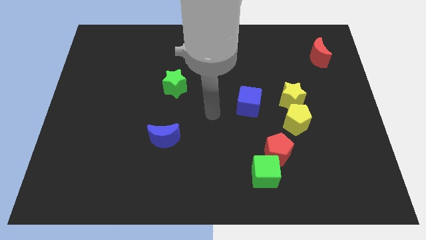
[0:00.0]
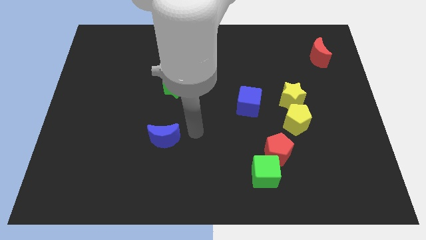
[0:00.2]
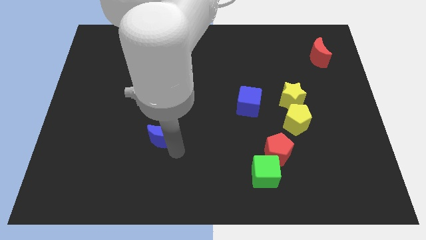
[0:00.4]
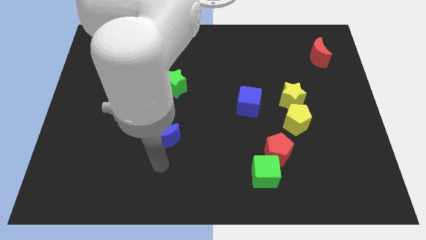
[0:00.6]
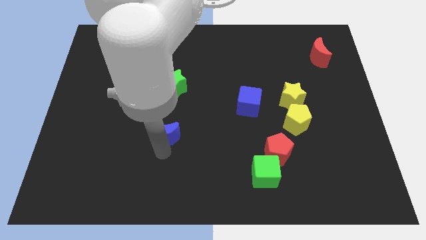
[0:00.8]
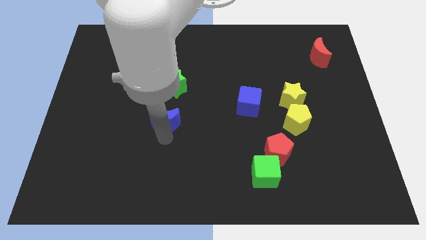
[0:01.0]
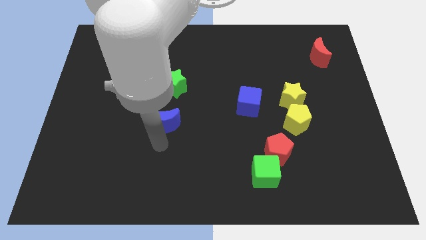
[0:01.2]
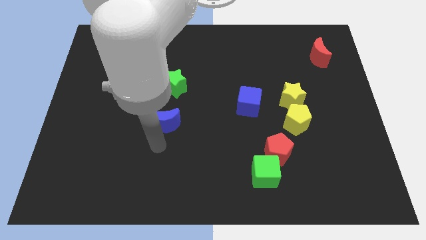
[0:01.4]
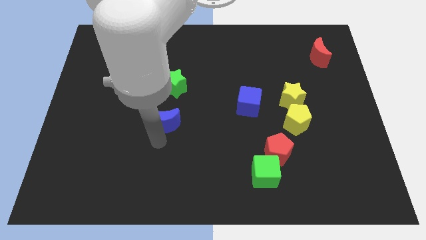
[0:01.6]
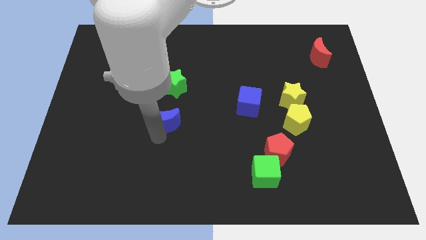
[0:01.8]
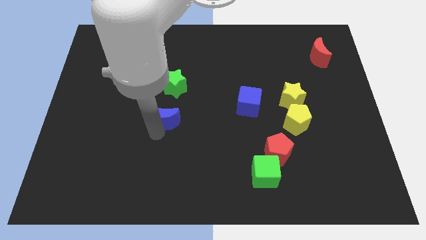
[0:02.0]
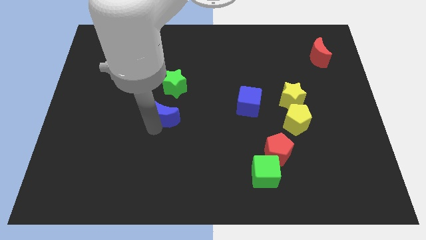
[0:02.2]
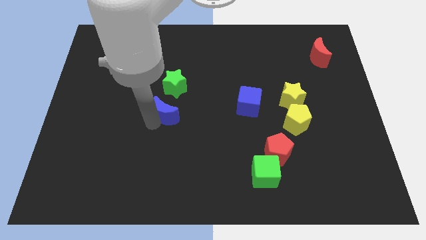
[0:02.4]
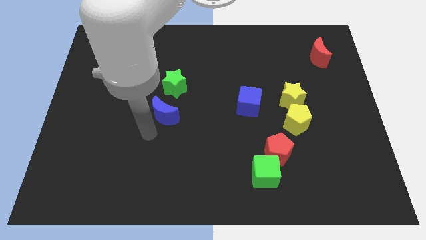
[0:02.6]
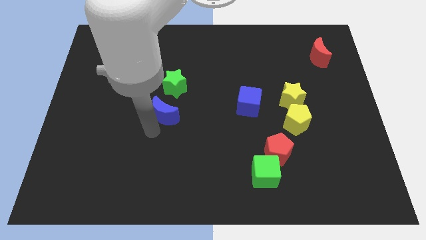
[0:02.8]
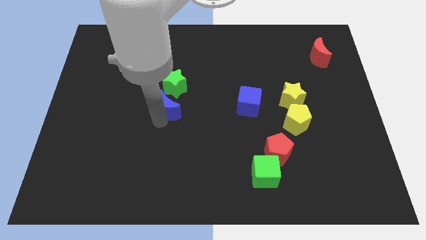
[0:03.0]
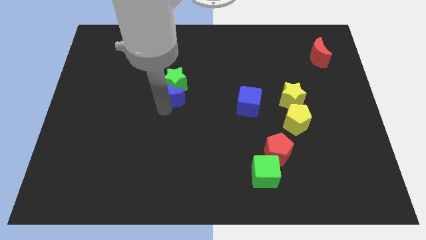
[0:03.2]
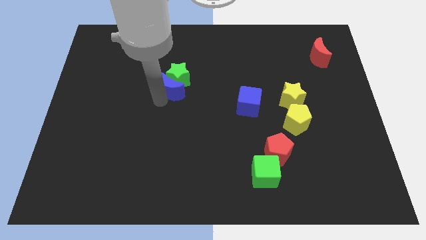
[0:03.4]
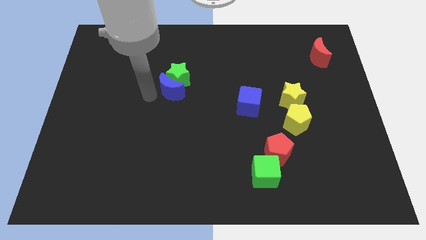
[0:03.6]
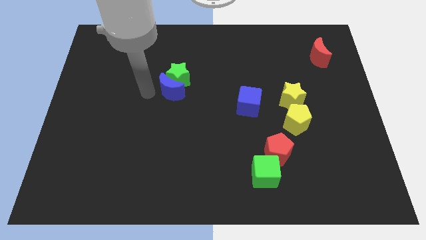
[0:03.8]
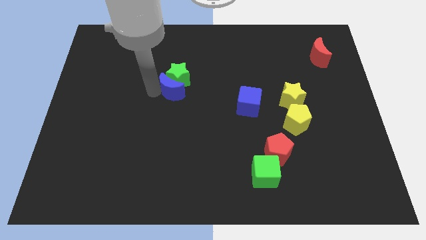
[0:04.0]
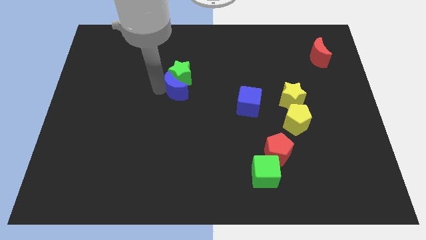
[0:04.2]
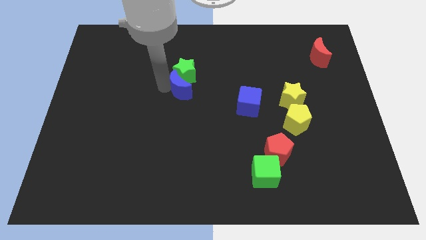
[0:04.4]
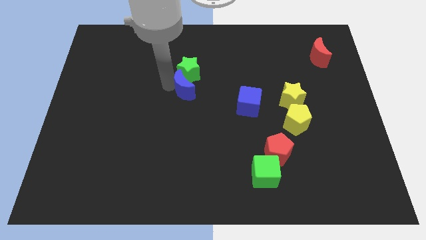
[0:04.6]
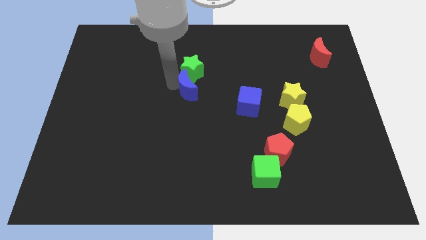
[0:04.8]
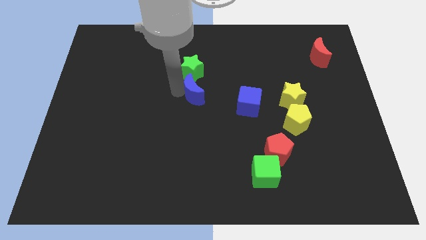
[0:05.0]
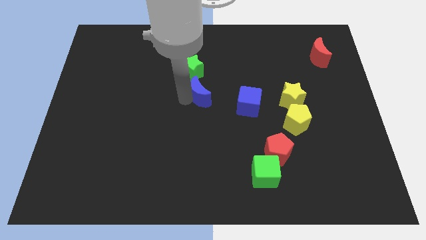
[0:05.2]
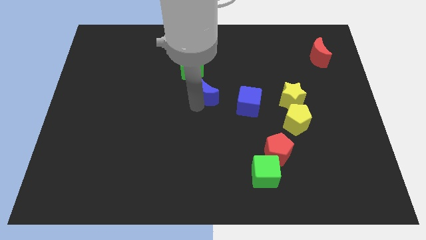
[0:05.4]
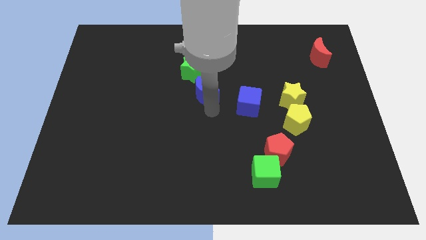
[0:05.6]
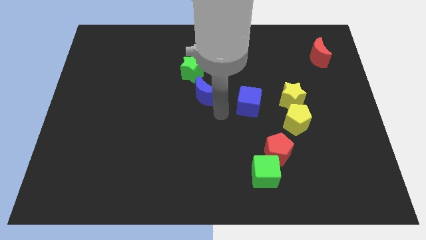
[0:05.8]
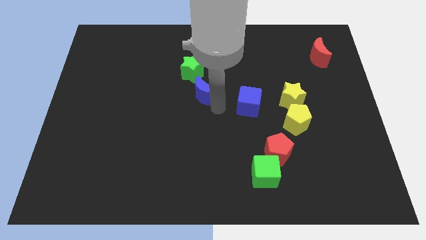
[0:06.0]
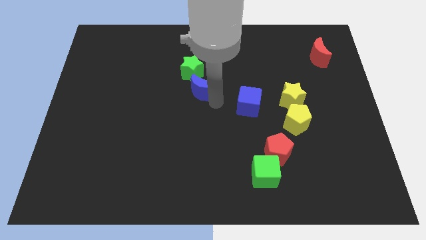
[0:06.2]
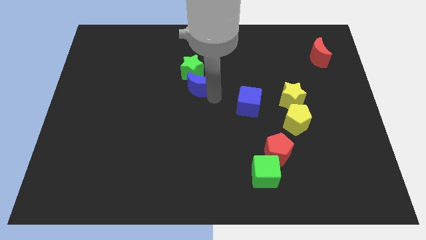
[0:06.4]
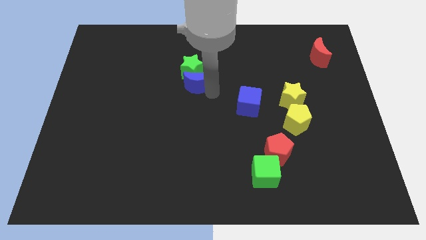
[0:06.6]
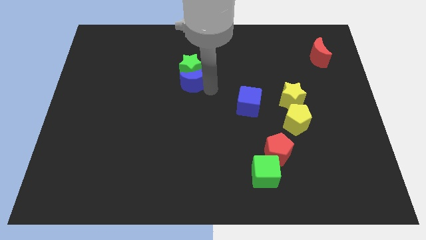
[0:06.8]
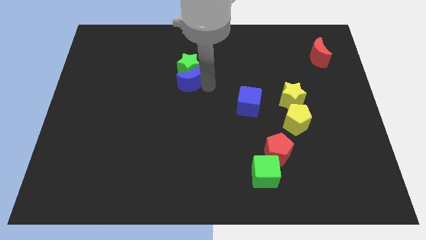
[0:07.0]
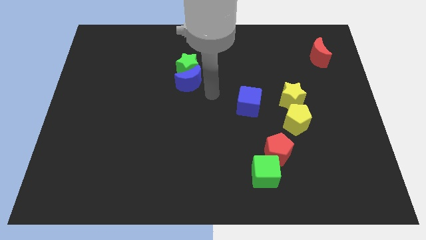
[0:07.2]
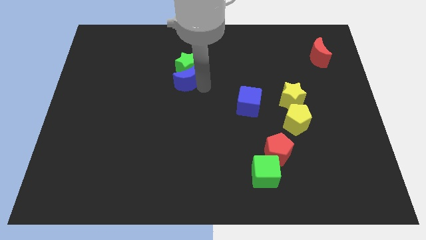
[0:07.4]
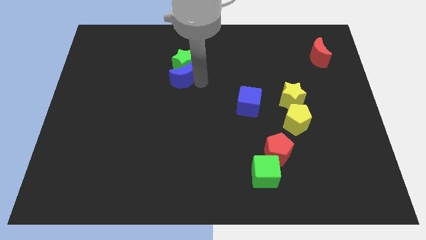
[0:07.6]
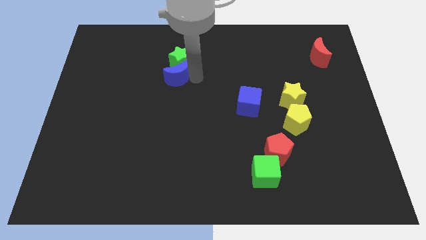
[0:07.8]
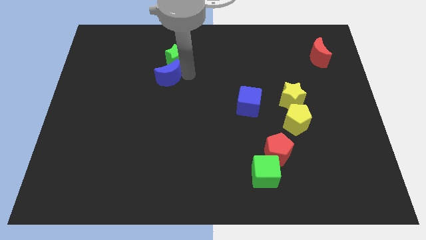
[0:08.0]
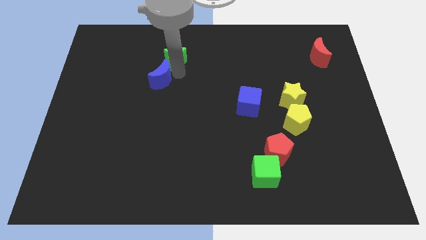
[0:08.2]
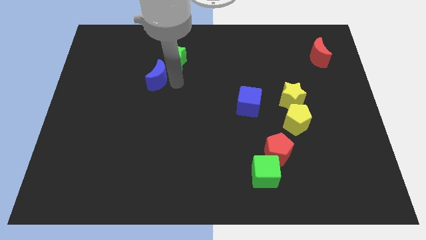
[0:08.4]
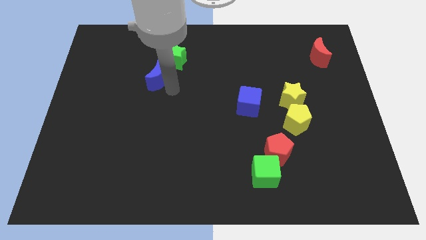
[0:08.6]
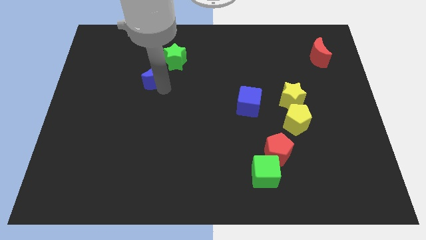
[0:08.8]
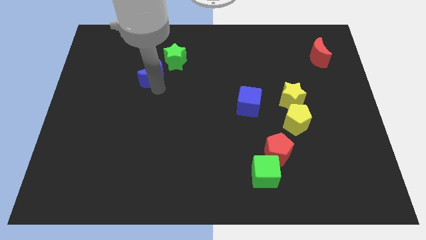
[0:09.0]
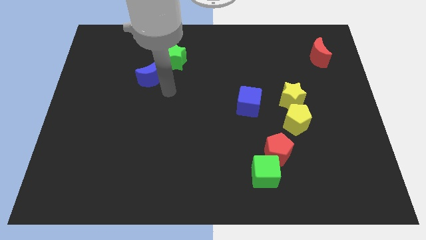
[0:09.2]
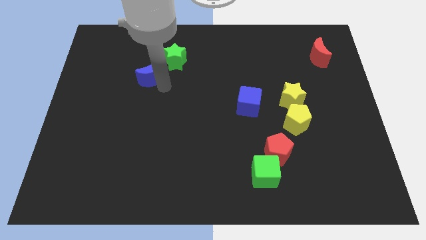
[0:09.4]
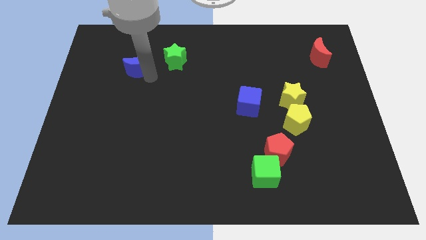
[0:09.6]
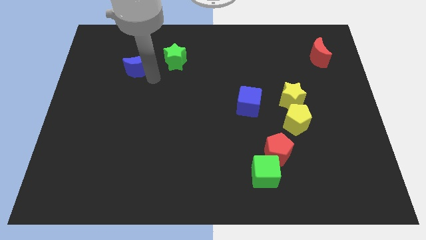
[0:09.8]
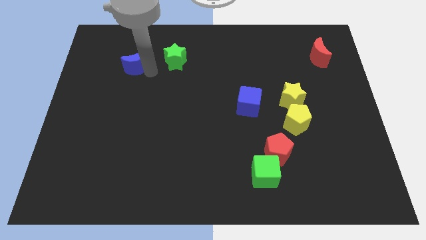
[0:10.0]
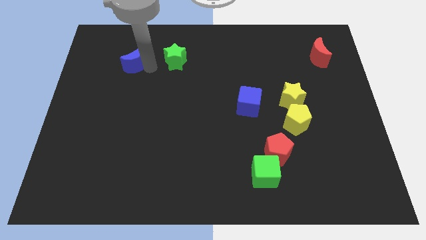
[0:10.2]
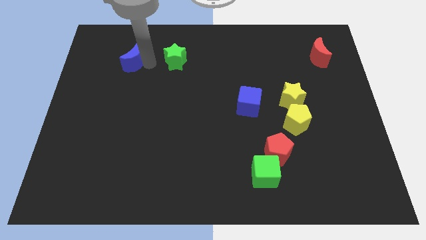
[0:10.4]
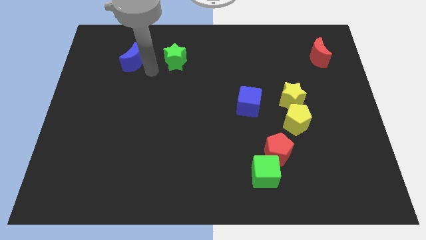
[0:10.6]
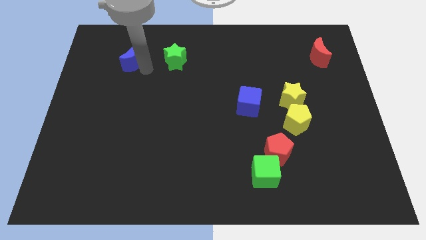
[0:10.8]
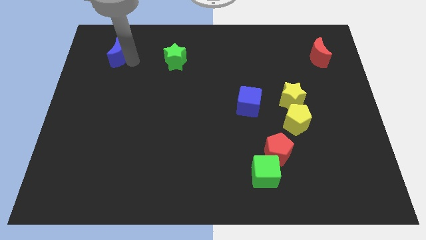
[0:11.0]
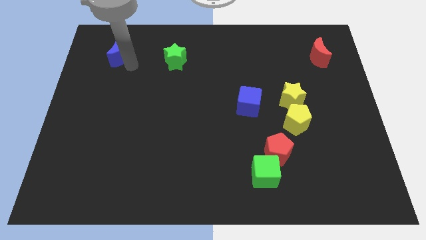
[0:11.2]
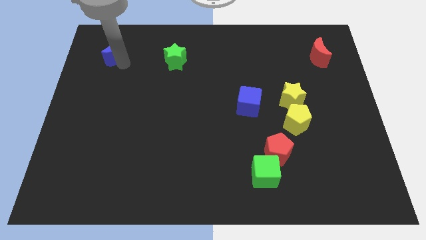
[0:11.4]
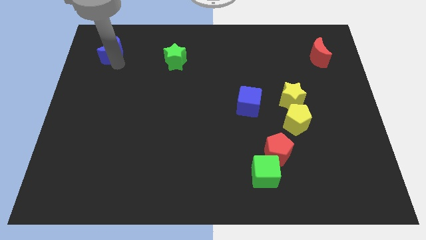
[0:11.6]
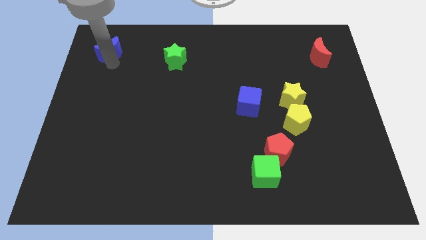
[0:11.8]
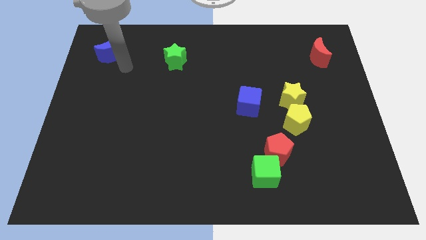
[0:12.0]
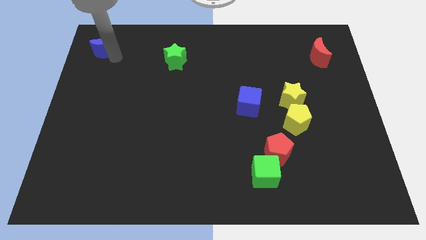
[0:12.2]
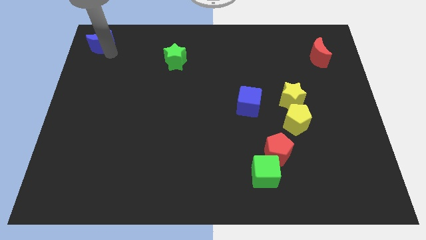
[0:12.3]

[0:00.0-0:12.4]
put the blue moon to the upper left corner
